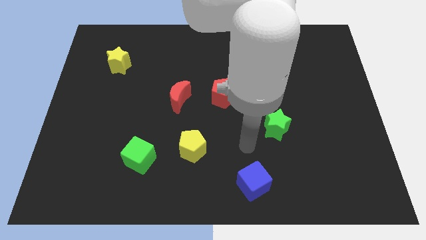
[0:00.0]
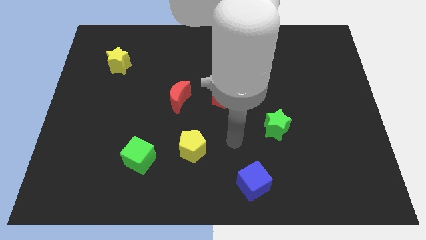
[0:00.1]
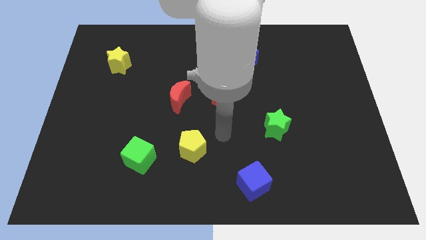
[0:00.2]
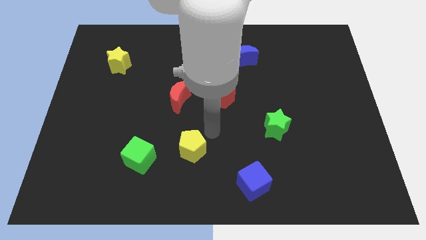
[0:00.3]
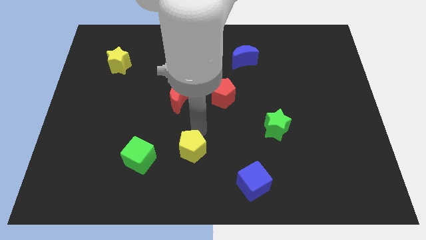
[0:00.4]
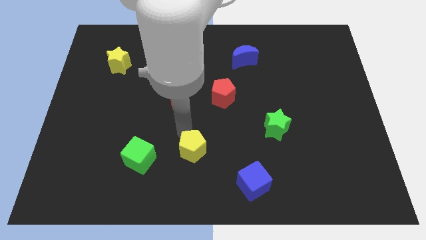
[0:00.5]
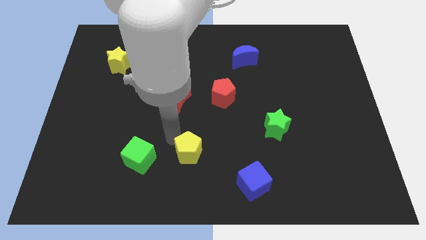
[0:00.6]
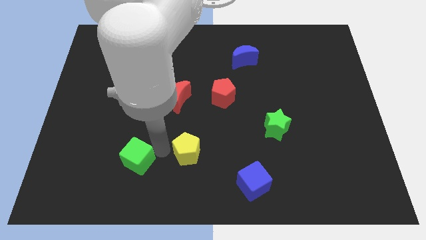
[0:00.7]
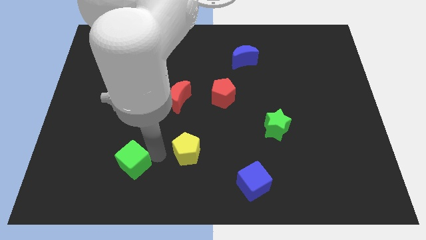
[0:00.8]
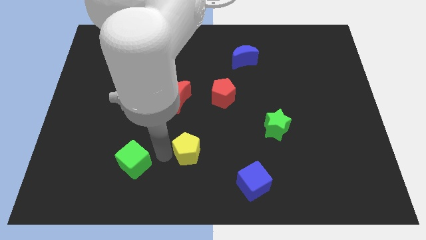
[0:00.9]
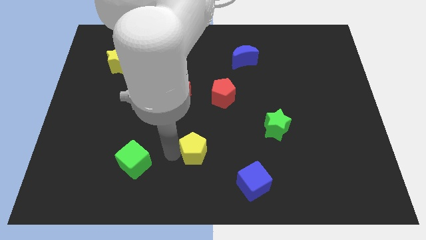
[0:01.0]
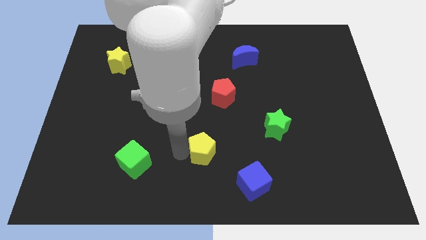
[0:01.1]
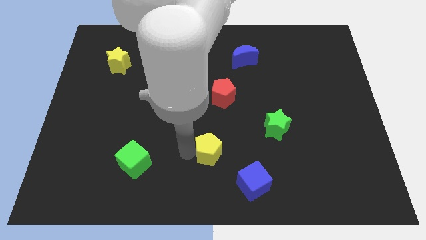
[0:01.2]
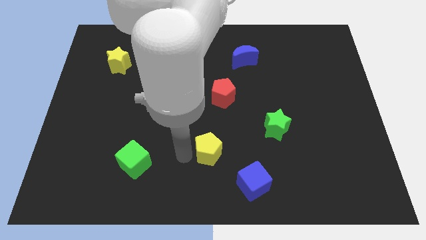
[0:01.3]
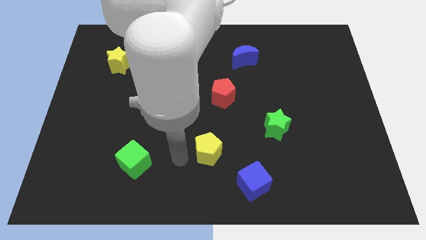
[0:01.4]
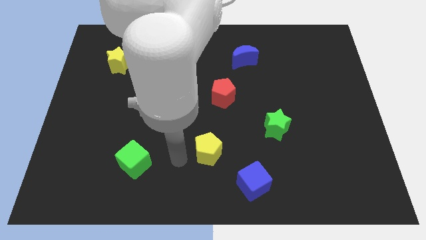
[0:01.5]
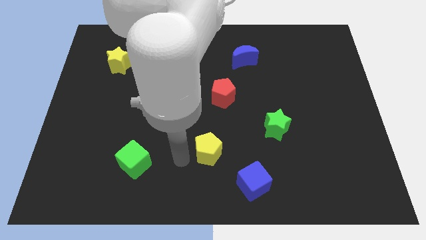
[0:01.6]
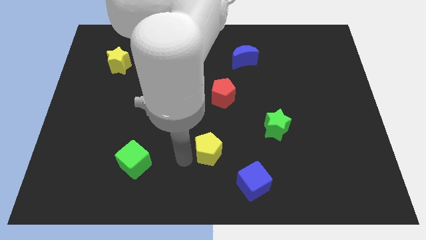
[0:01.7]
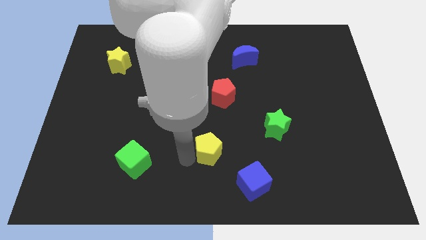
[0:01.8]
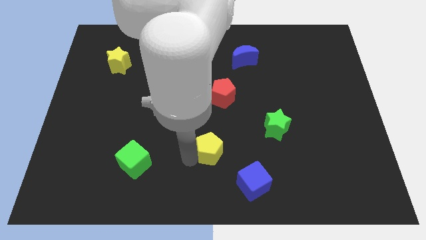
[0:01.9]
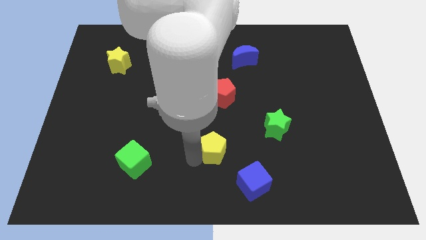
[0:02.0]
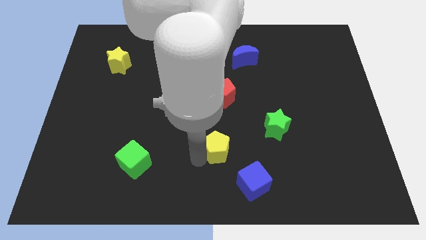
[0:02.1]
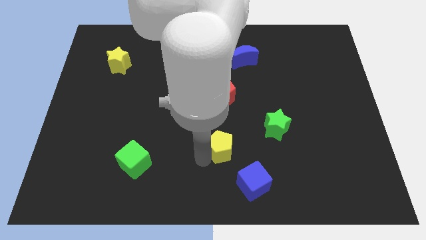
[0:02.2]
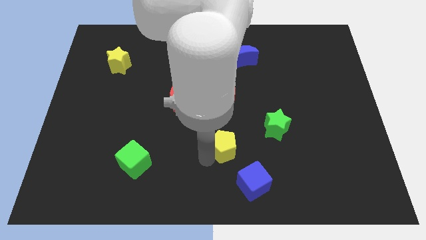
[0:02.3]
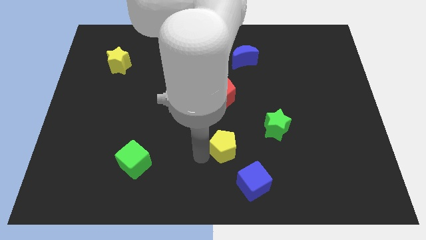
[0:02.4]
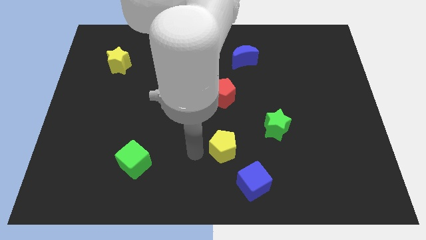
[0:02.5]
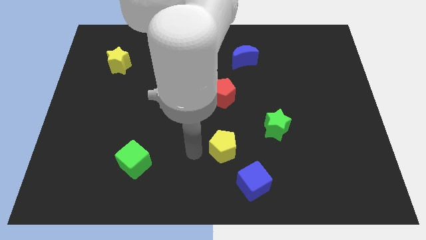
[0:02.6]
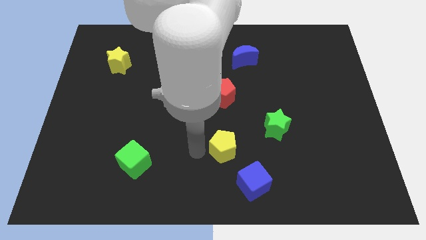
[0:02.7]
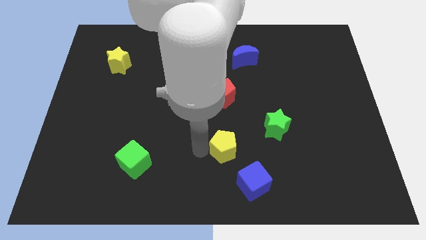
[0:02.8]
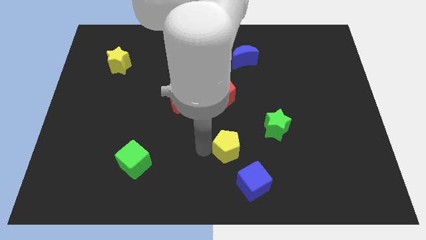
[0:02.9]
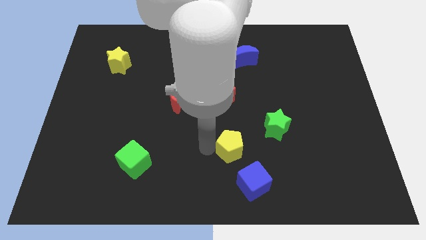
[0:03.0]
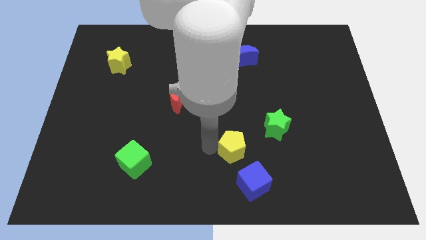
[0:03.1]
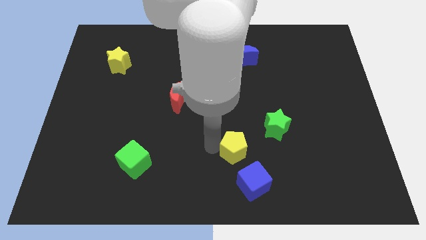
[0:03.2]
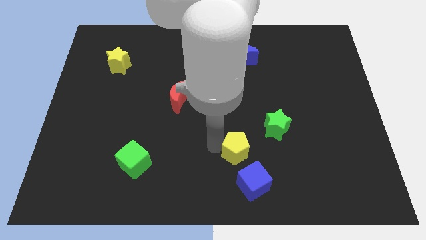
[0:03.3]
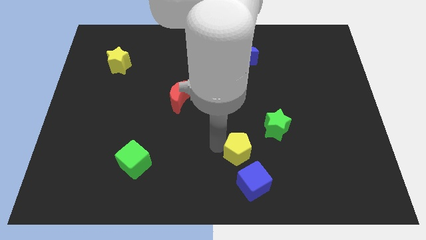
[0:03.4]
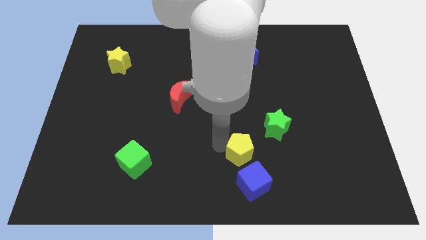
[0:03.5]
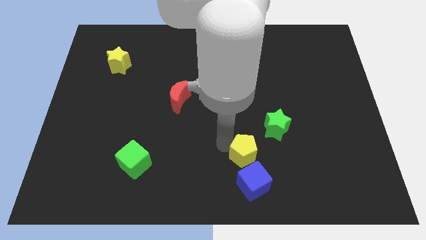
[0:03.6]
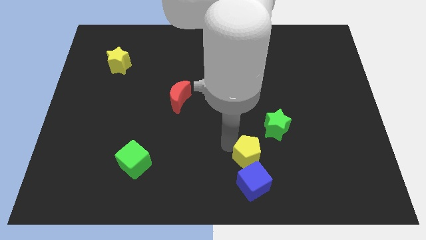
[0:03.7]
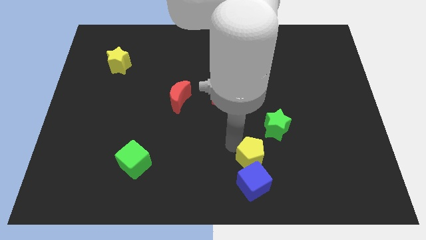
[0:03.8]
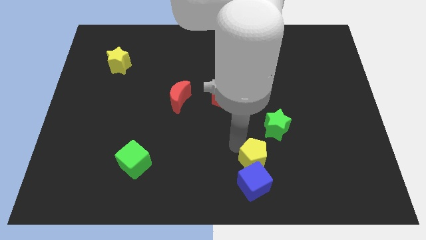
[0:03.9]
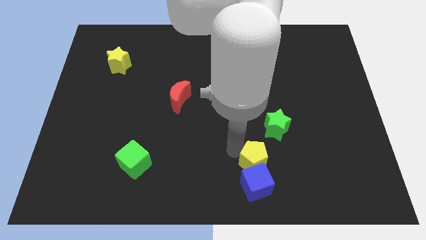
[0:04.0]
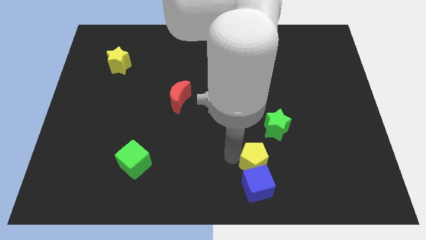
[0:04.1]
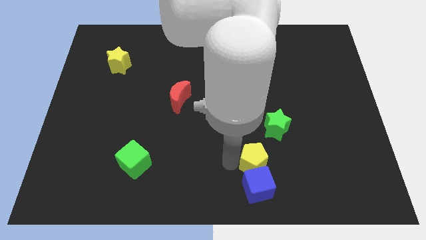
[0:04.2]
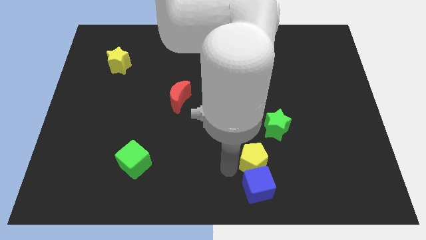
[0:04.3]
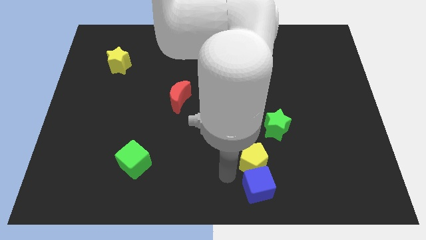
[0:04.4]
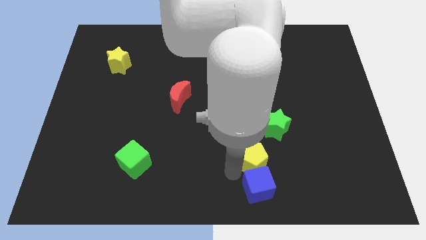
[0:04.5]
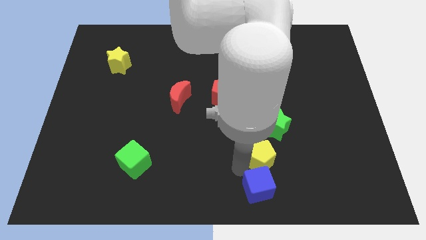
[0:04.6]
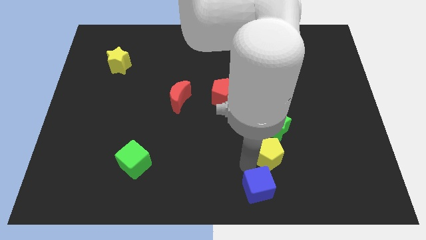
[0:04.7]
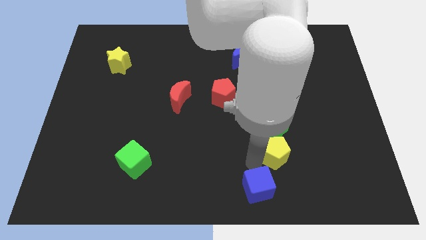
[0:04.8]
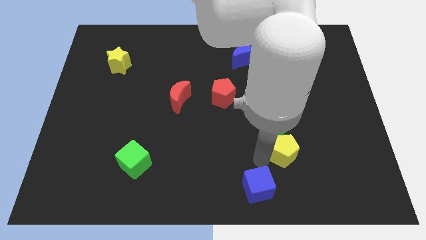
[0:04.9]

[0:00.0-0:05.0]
move the yellow pentagon to the bottom right side of the green star

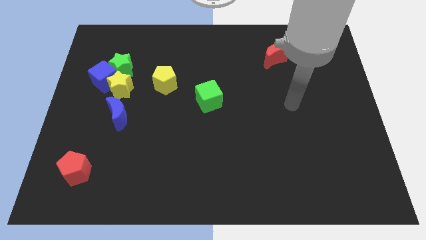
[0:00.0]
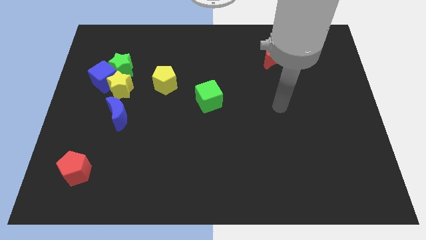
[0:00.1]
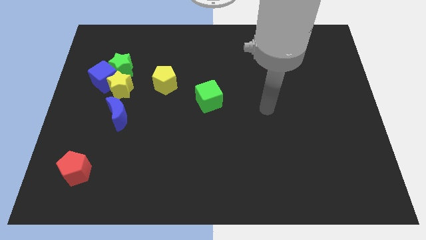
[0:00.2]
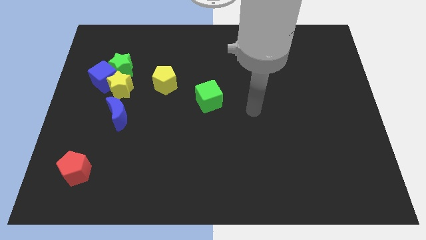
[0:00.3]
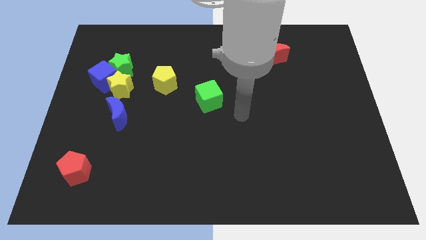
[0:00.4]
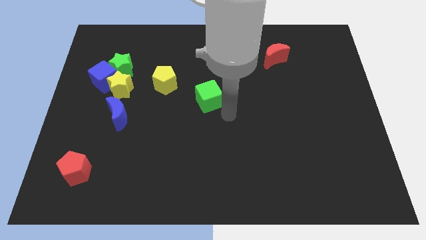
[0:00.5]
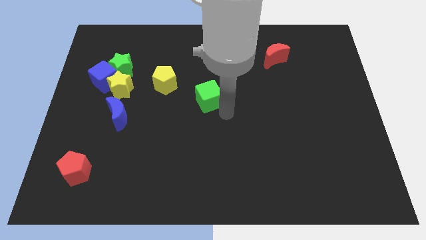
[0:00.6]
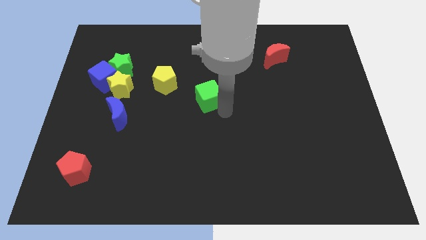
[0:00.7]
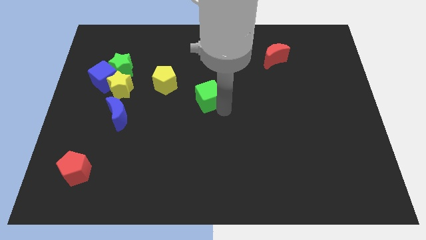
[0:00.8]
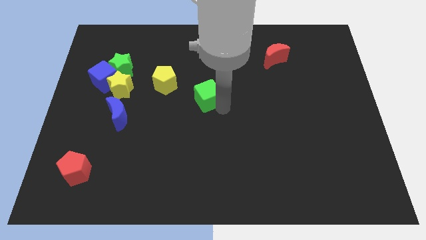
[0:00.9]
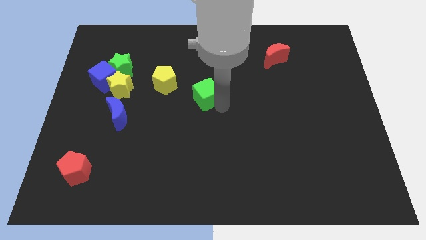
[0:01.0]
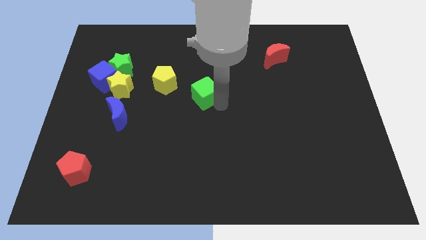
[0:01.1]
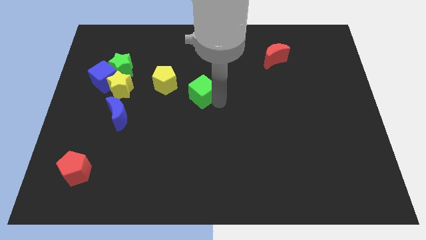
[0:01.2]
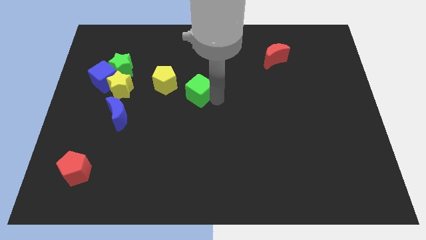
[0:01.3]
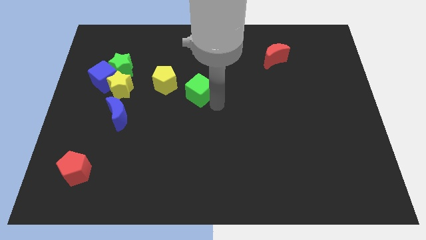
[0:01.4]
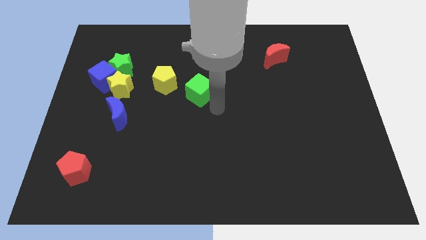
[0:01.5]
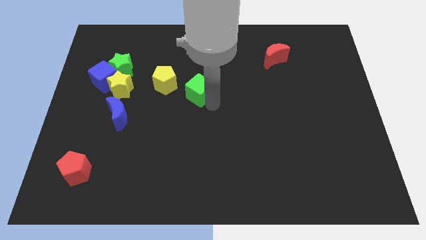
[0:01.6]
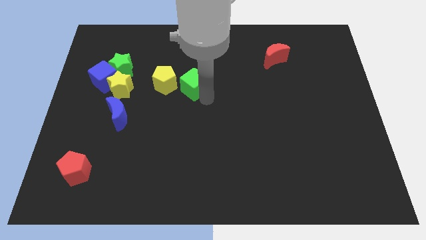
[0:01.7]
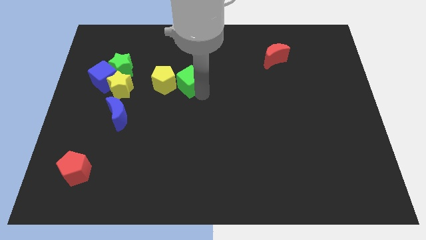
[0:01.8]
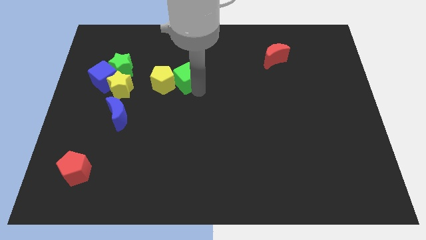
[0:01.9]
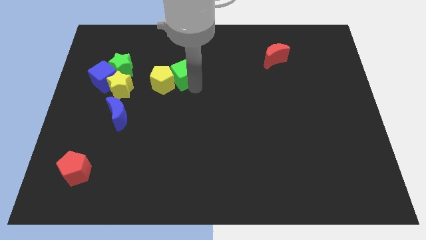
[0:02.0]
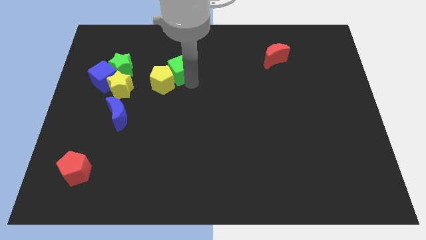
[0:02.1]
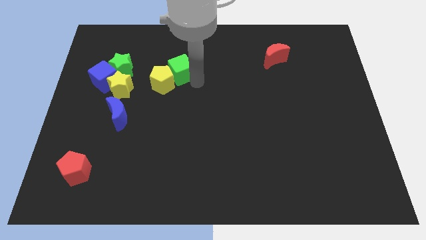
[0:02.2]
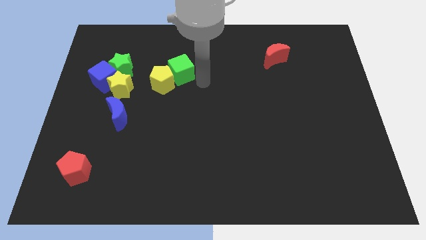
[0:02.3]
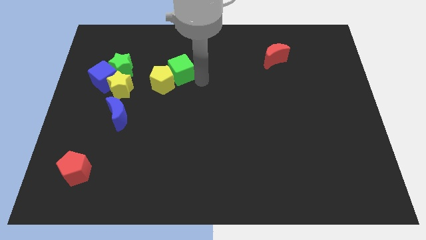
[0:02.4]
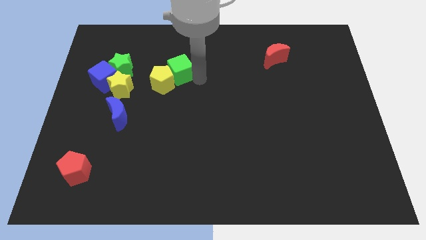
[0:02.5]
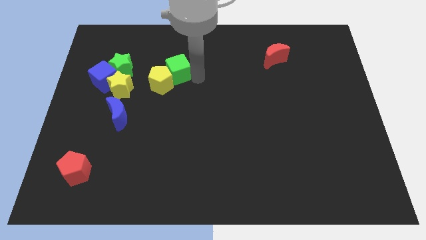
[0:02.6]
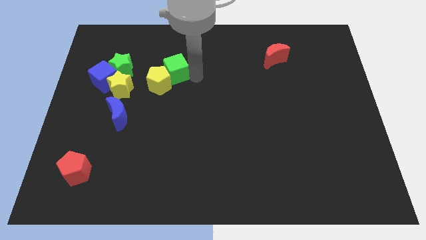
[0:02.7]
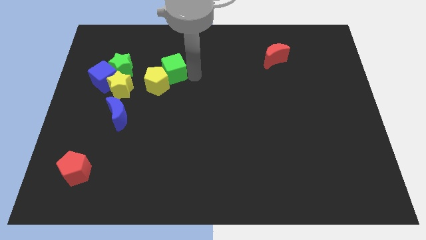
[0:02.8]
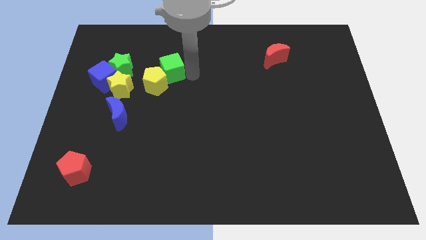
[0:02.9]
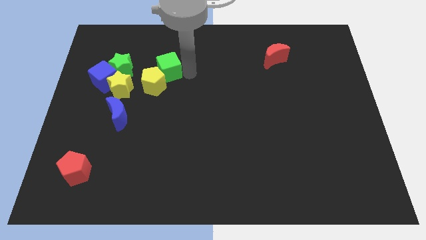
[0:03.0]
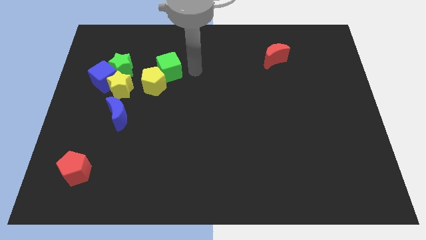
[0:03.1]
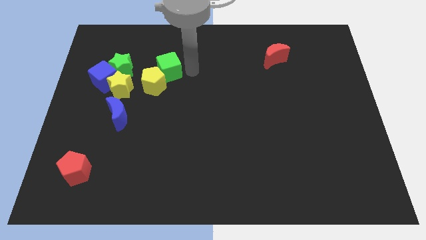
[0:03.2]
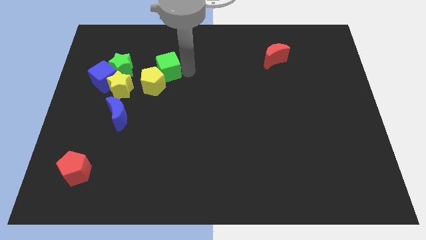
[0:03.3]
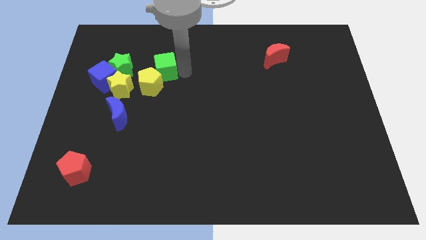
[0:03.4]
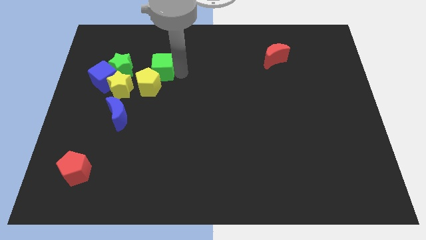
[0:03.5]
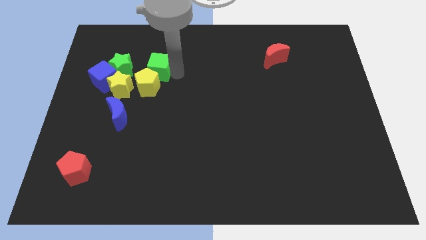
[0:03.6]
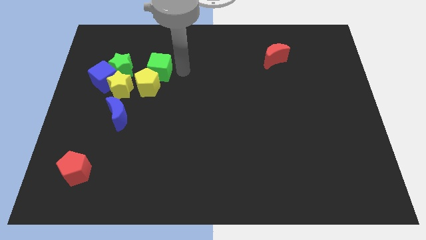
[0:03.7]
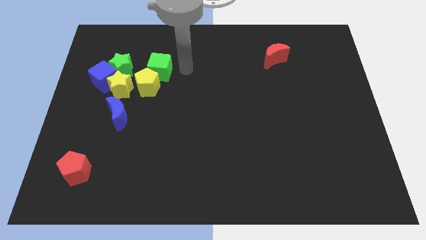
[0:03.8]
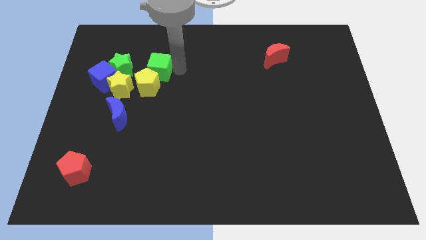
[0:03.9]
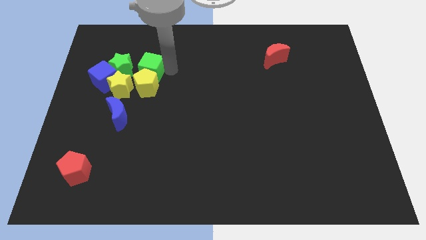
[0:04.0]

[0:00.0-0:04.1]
slide the green cube to the top left side of the yellow pentagon
